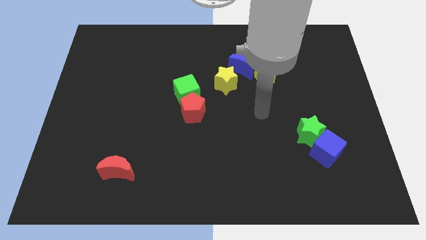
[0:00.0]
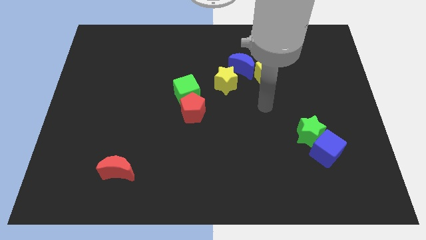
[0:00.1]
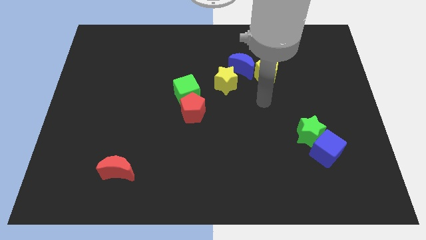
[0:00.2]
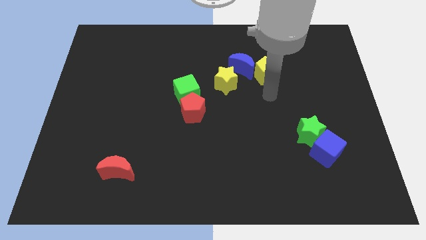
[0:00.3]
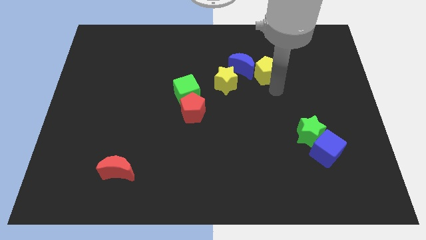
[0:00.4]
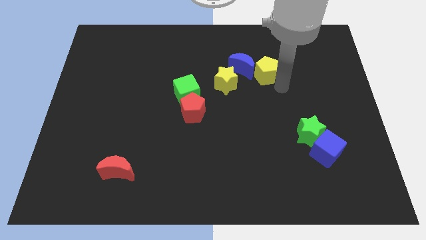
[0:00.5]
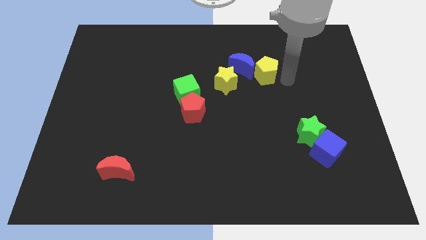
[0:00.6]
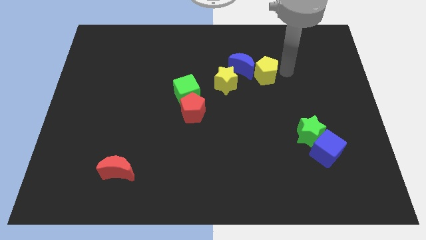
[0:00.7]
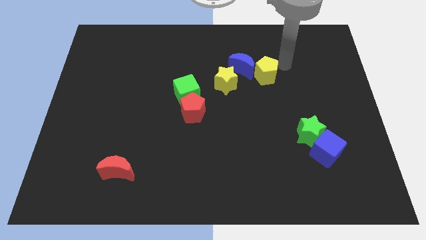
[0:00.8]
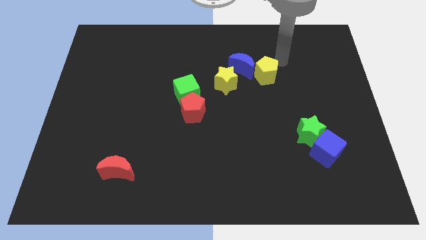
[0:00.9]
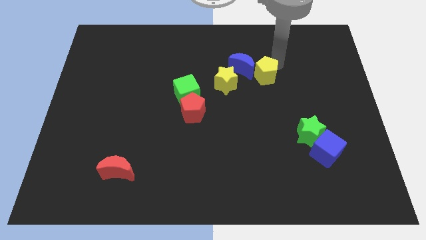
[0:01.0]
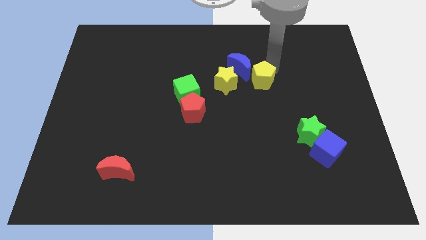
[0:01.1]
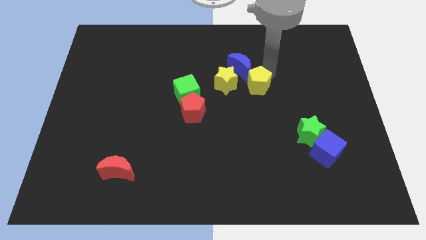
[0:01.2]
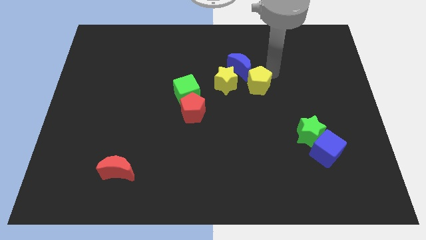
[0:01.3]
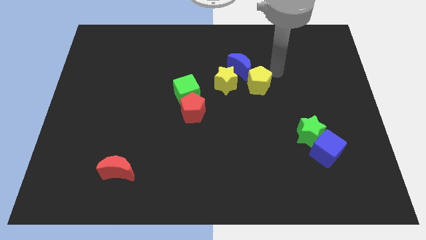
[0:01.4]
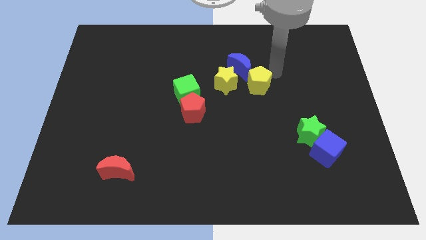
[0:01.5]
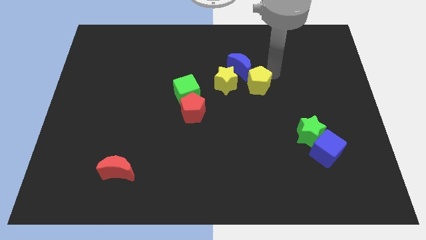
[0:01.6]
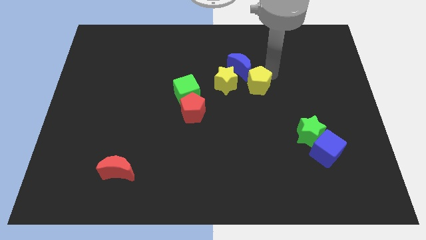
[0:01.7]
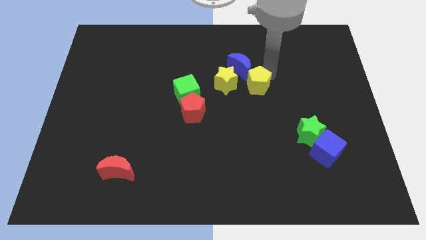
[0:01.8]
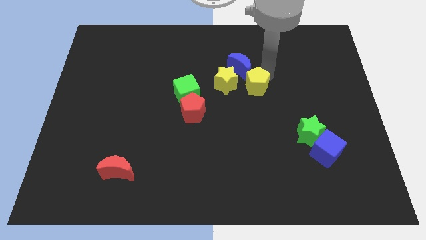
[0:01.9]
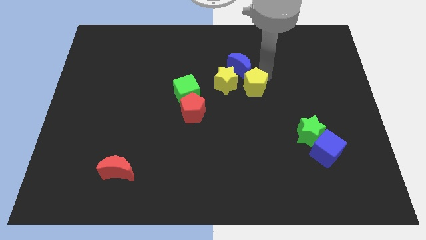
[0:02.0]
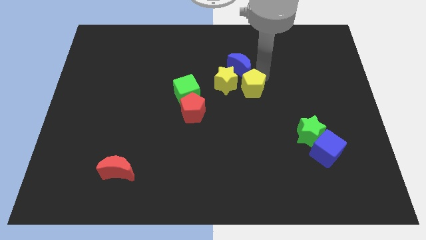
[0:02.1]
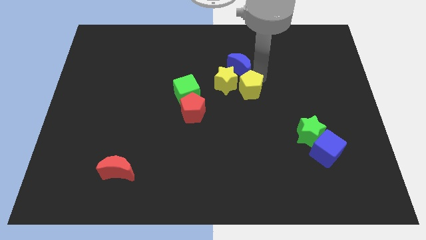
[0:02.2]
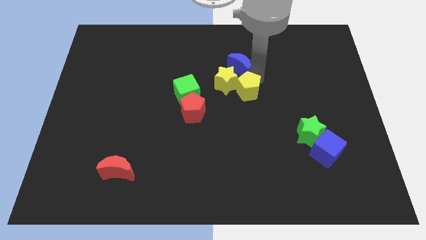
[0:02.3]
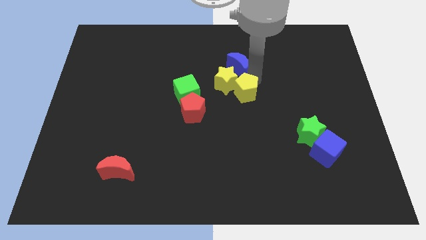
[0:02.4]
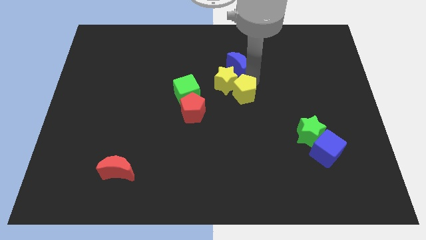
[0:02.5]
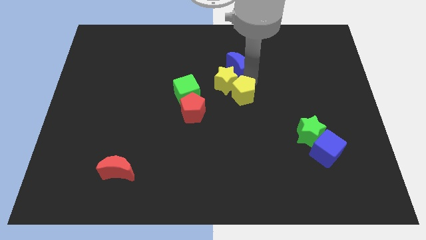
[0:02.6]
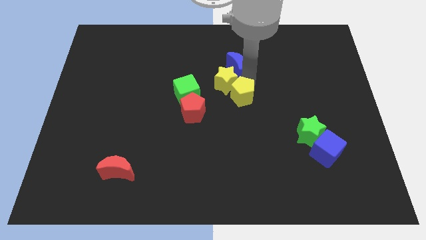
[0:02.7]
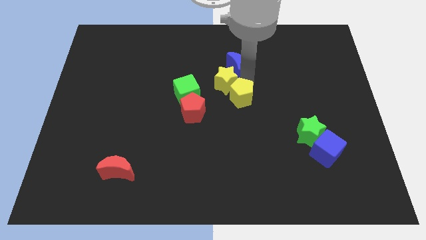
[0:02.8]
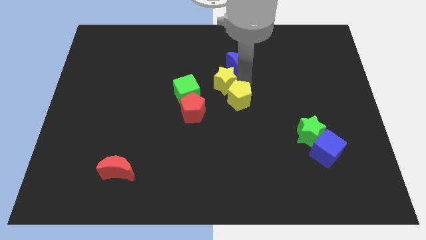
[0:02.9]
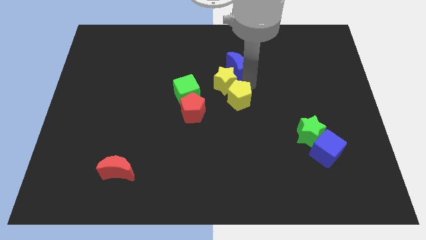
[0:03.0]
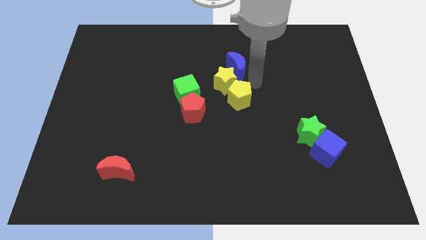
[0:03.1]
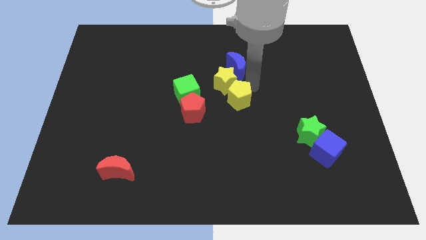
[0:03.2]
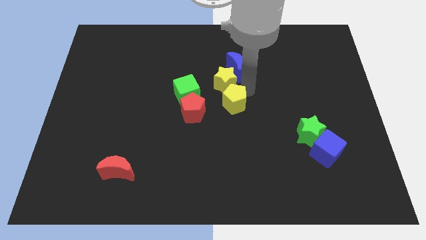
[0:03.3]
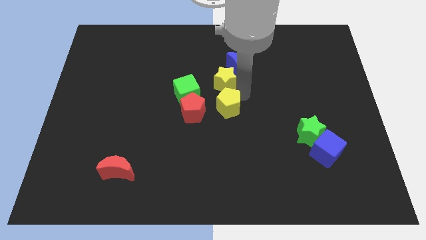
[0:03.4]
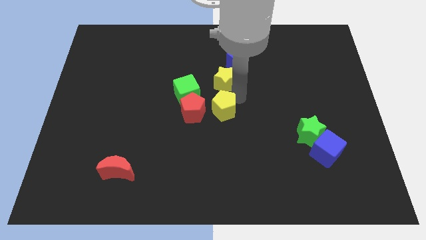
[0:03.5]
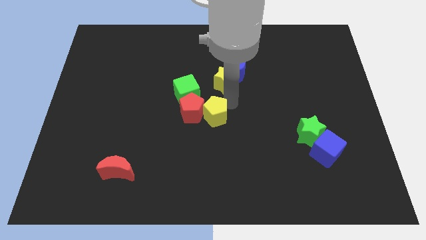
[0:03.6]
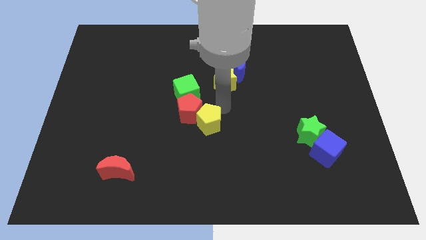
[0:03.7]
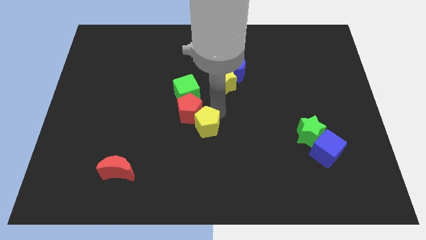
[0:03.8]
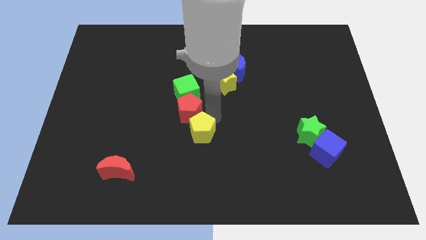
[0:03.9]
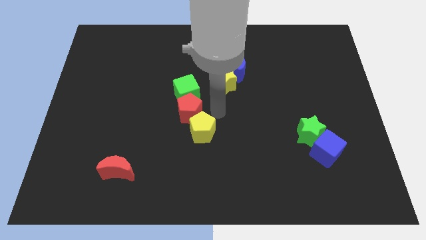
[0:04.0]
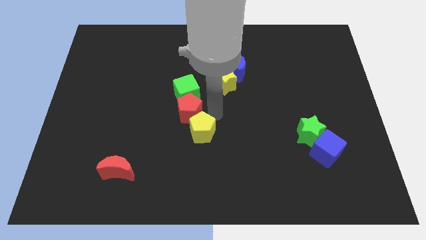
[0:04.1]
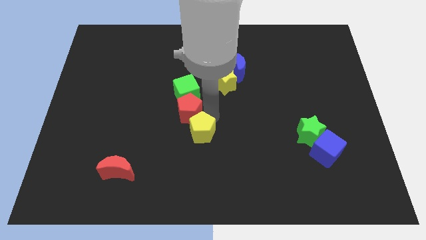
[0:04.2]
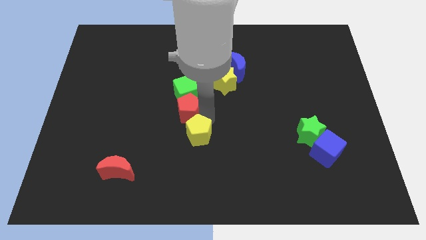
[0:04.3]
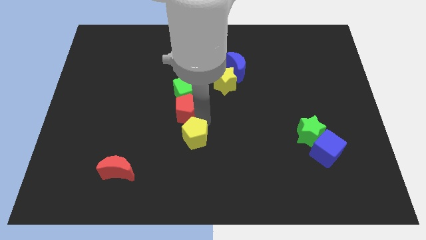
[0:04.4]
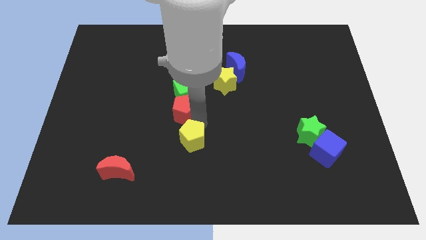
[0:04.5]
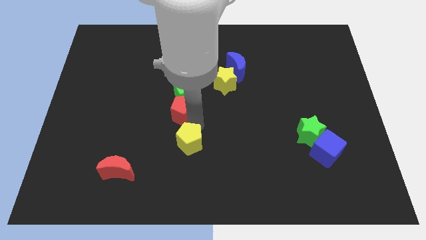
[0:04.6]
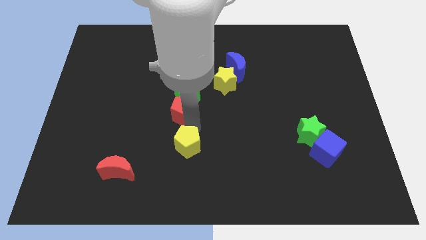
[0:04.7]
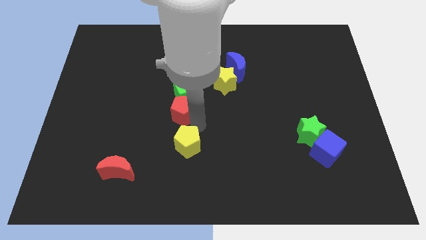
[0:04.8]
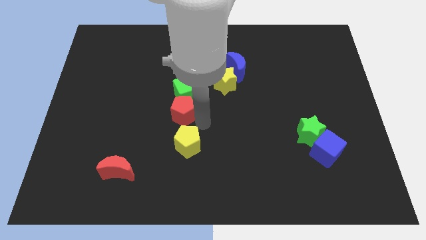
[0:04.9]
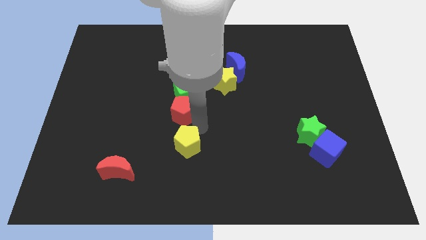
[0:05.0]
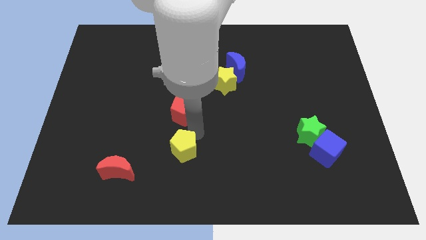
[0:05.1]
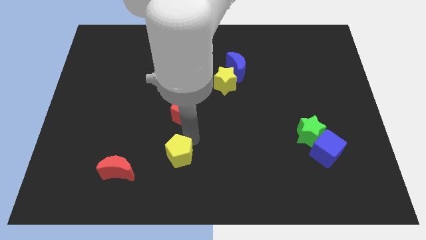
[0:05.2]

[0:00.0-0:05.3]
slide the yellow pentagon right of the red moon

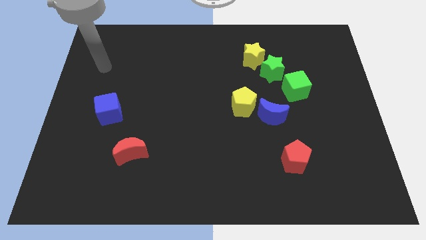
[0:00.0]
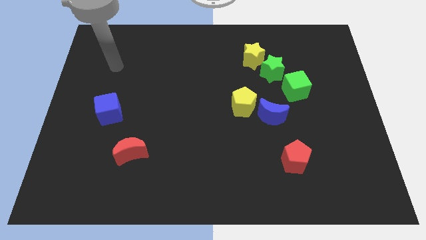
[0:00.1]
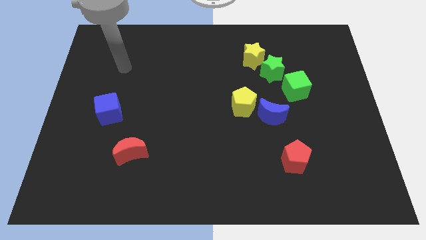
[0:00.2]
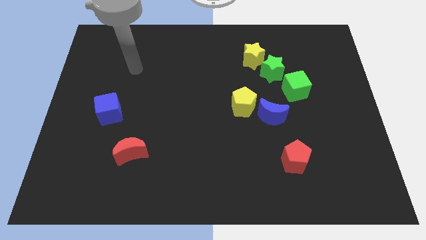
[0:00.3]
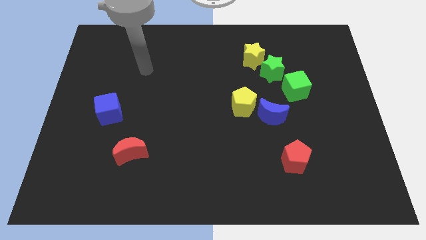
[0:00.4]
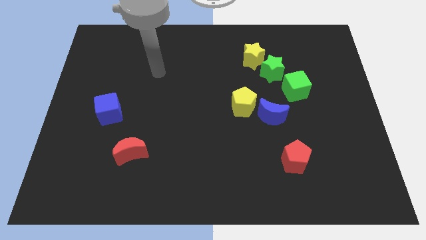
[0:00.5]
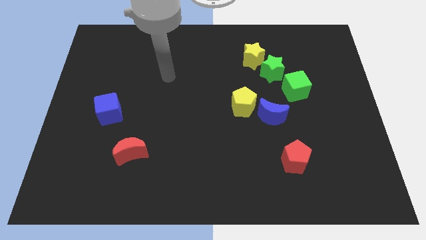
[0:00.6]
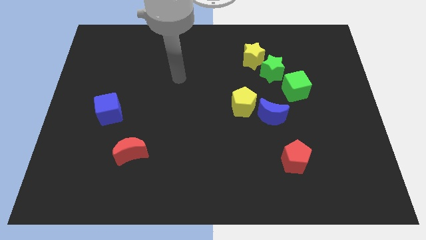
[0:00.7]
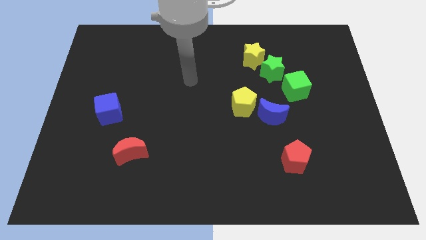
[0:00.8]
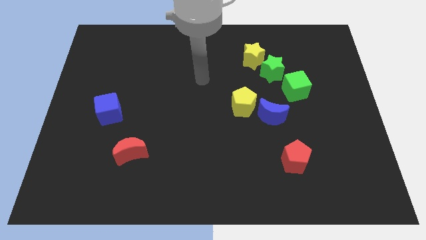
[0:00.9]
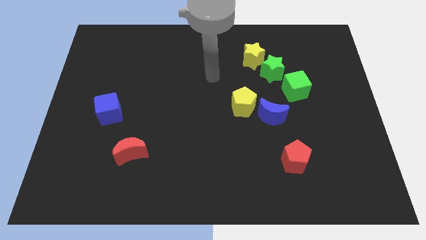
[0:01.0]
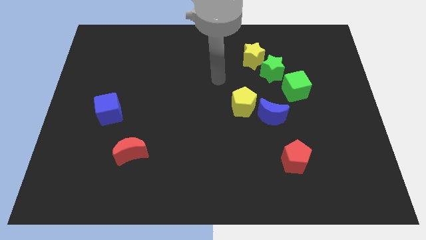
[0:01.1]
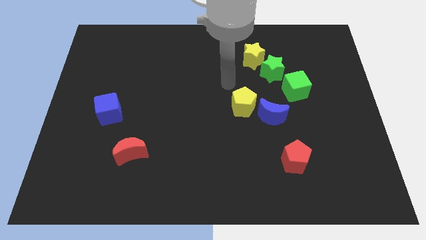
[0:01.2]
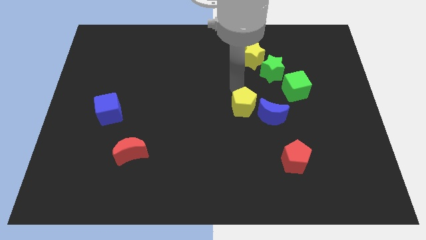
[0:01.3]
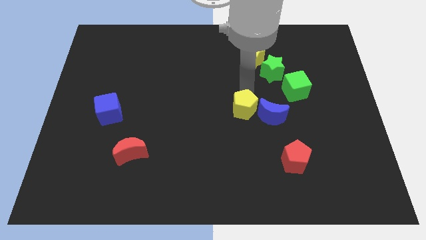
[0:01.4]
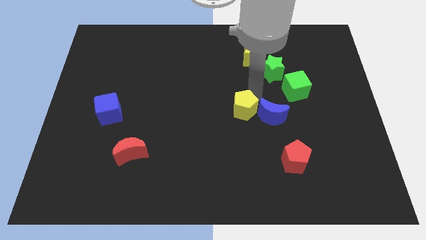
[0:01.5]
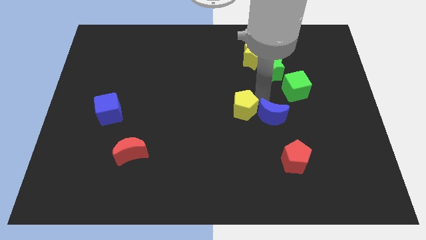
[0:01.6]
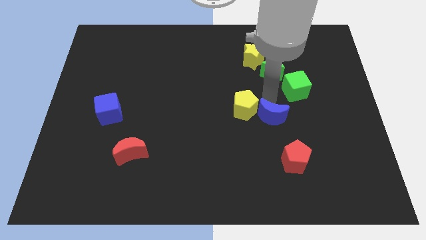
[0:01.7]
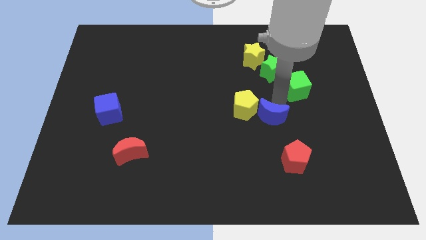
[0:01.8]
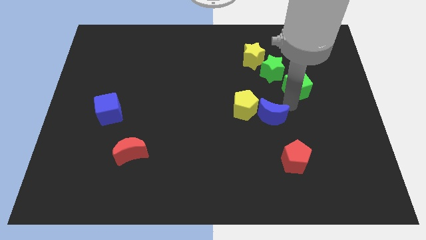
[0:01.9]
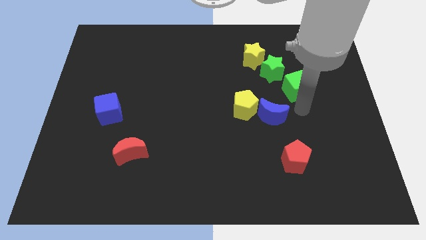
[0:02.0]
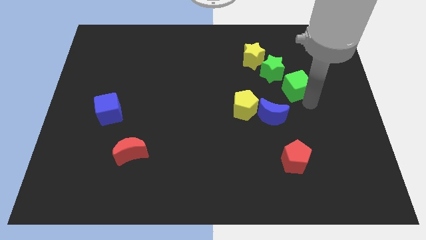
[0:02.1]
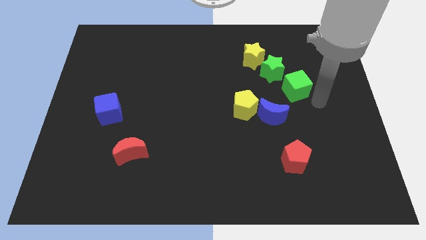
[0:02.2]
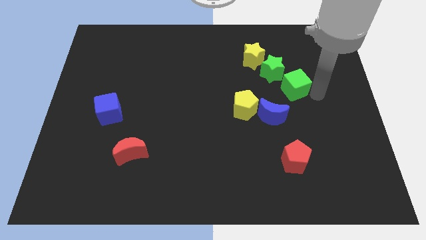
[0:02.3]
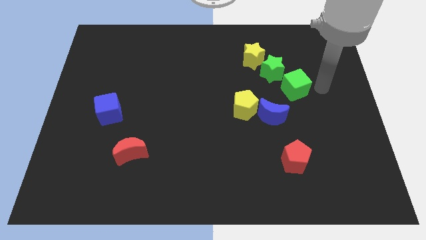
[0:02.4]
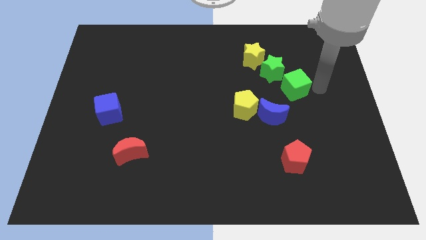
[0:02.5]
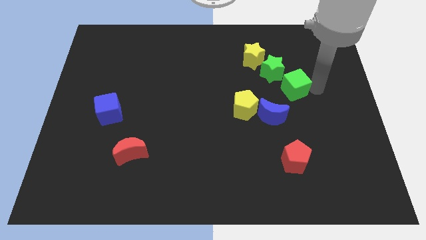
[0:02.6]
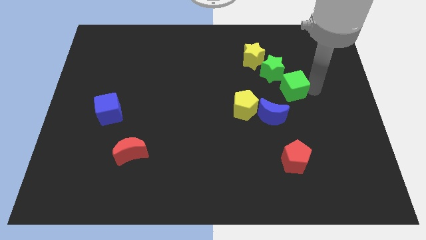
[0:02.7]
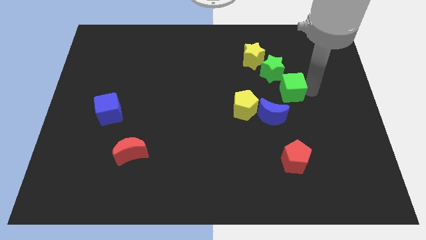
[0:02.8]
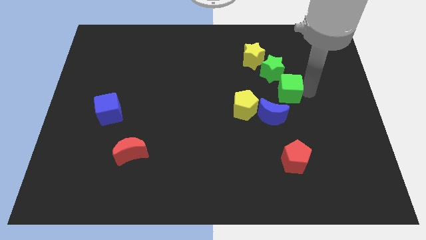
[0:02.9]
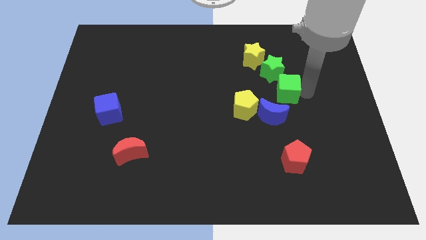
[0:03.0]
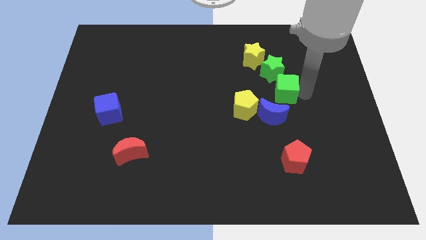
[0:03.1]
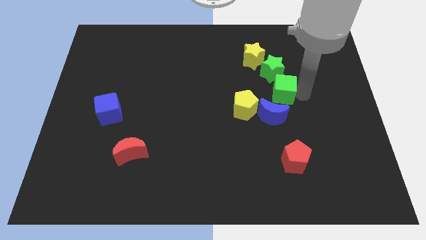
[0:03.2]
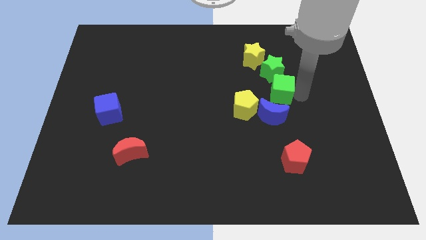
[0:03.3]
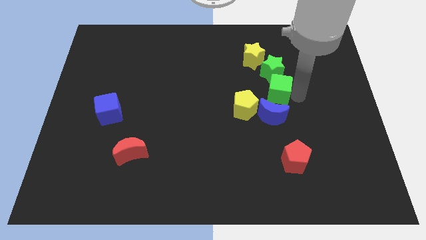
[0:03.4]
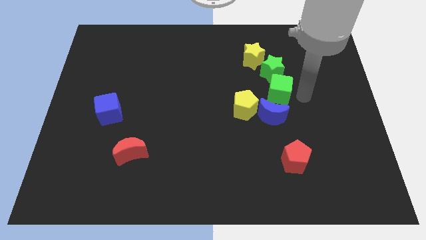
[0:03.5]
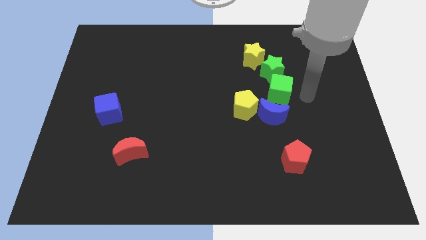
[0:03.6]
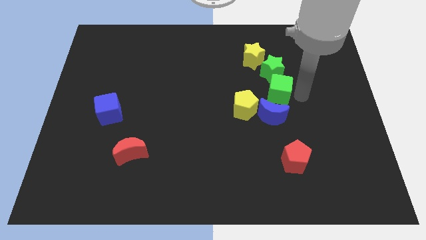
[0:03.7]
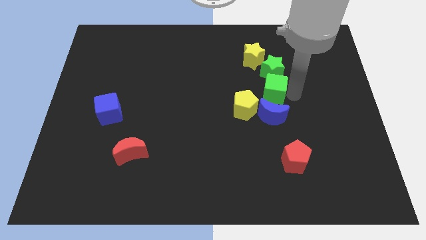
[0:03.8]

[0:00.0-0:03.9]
slide the green cube below the yellow star
